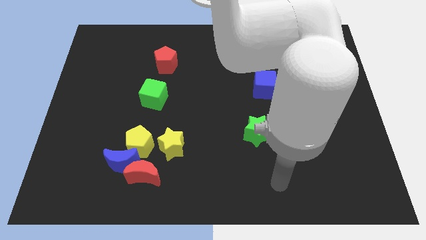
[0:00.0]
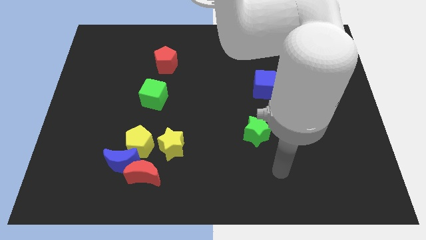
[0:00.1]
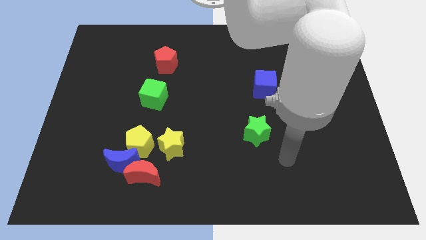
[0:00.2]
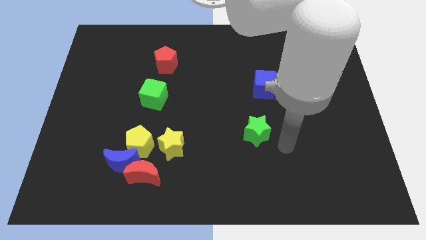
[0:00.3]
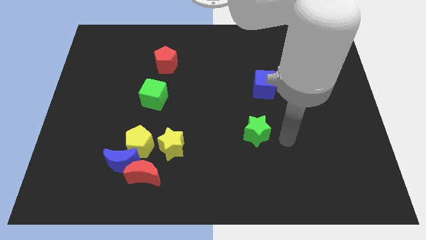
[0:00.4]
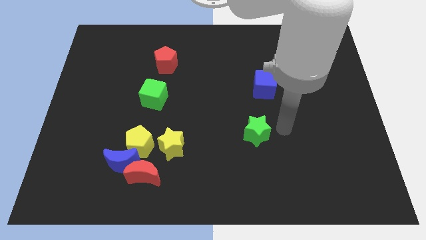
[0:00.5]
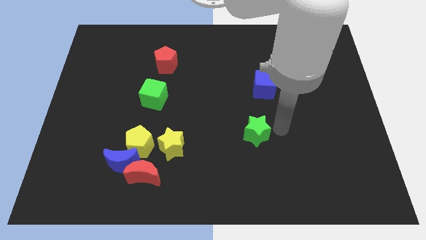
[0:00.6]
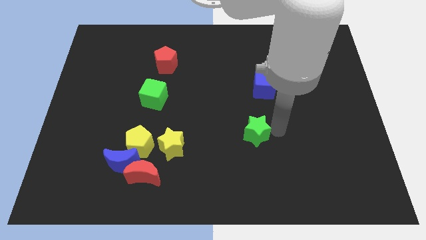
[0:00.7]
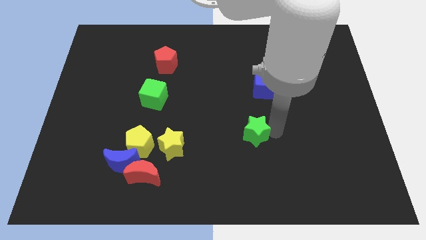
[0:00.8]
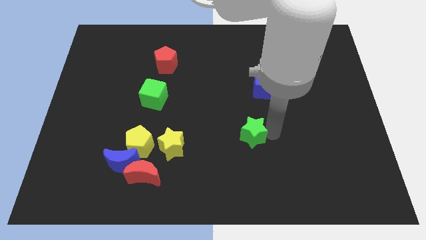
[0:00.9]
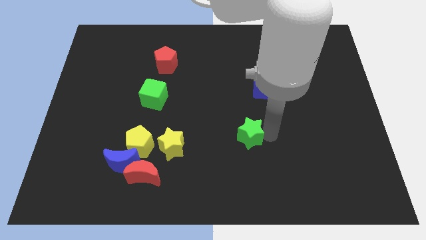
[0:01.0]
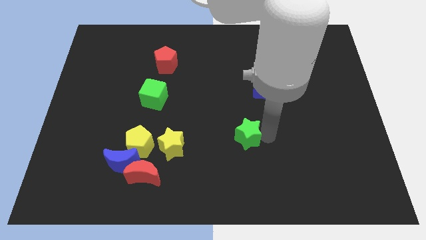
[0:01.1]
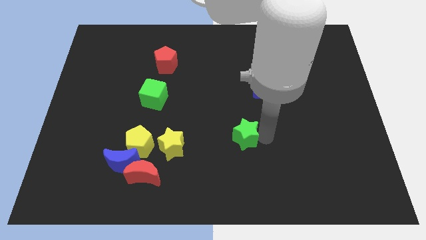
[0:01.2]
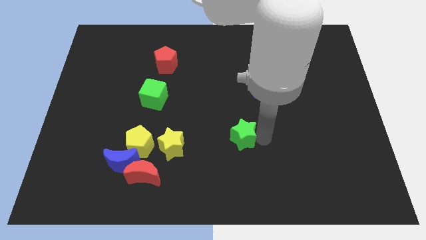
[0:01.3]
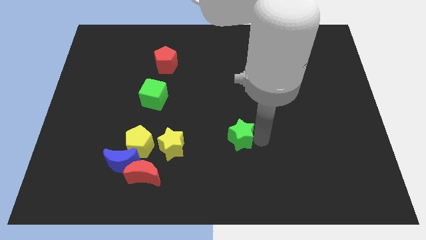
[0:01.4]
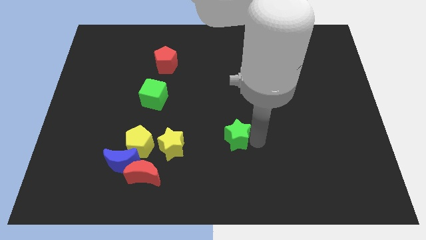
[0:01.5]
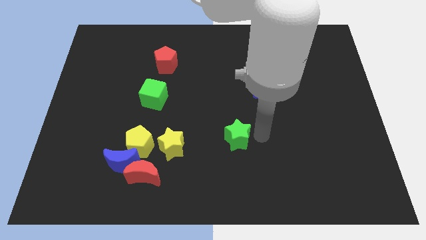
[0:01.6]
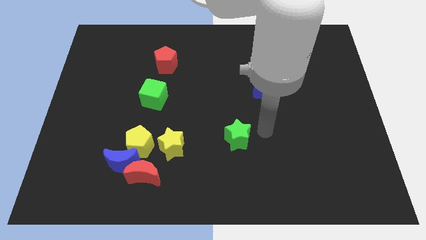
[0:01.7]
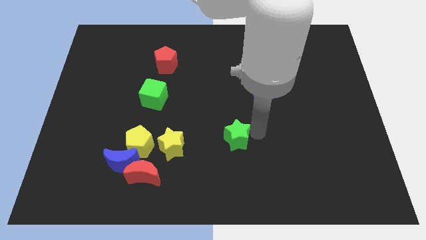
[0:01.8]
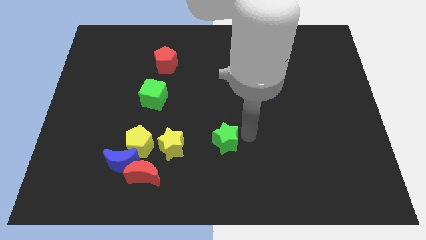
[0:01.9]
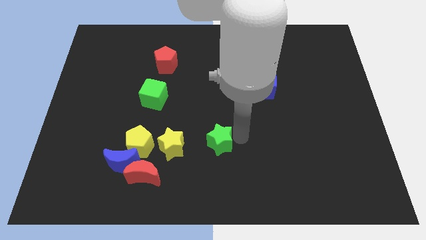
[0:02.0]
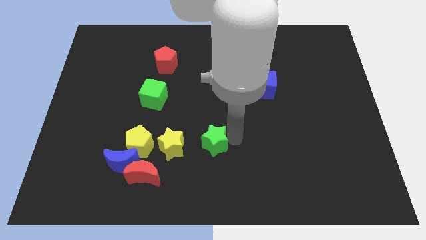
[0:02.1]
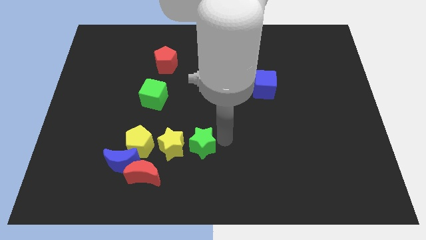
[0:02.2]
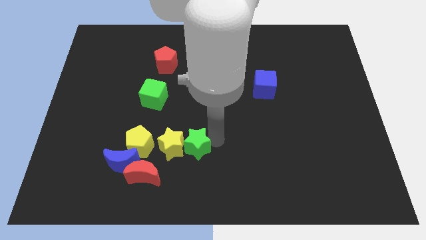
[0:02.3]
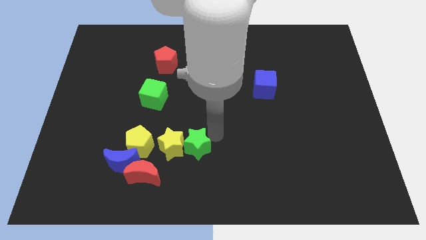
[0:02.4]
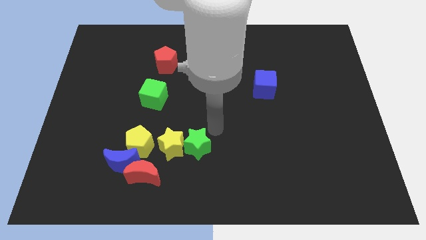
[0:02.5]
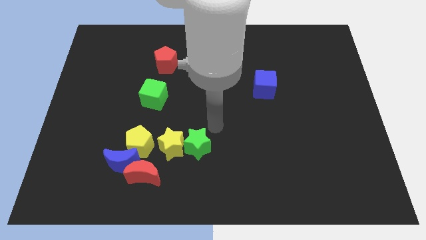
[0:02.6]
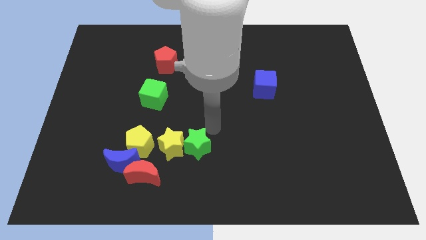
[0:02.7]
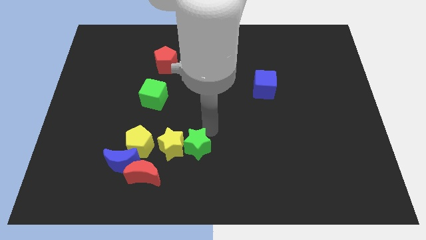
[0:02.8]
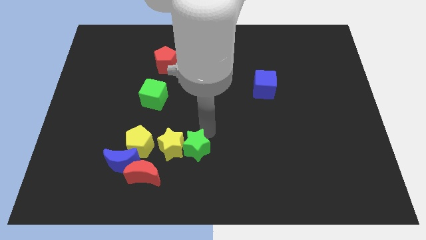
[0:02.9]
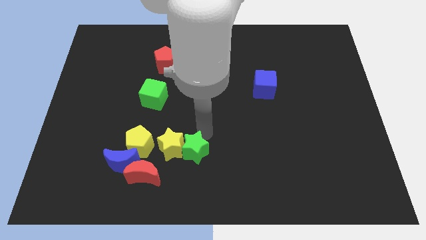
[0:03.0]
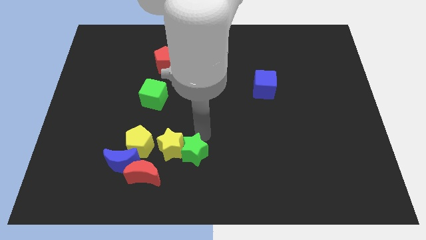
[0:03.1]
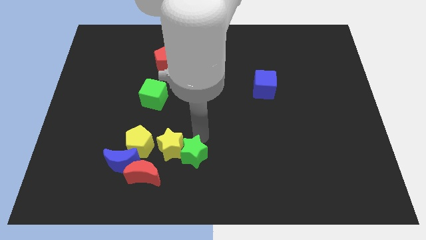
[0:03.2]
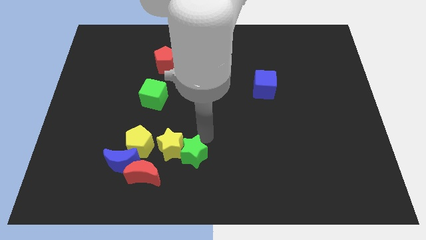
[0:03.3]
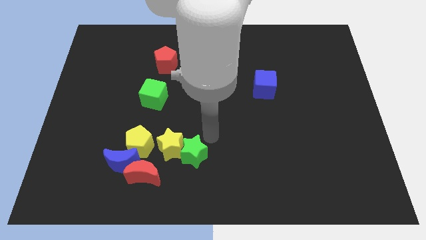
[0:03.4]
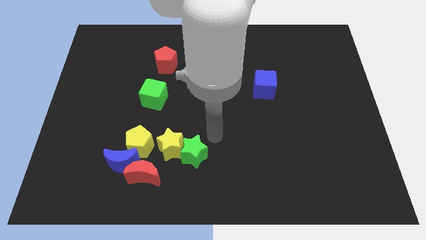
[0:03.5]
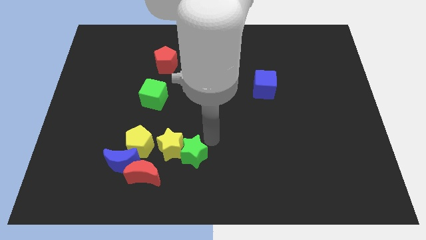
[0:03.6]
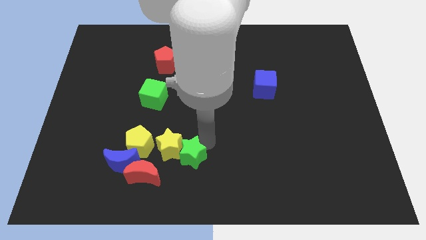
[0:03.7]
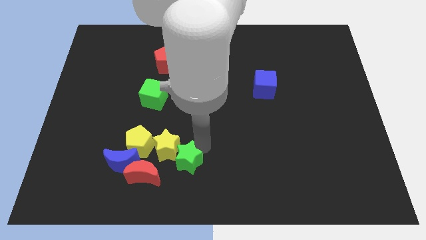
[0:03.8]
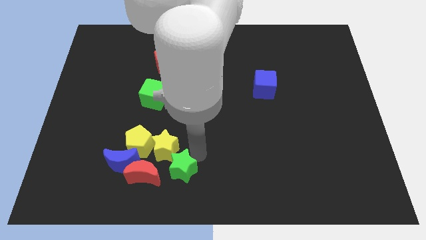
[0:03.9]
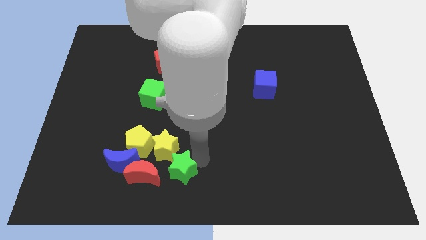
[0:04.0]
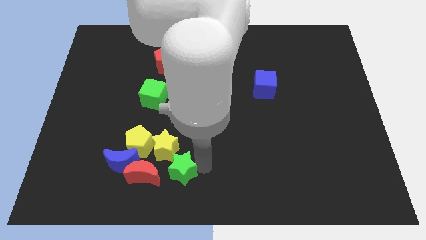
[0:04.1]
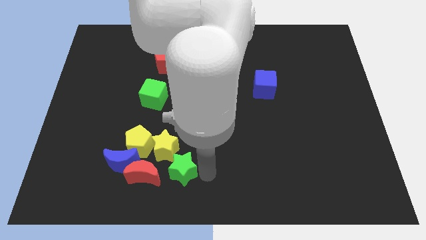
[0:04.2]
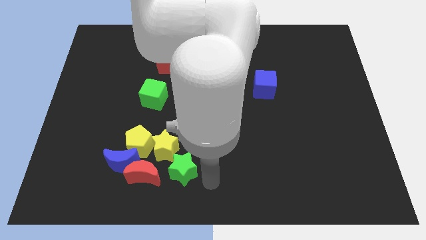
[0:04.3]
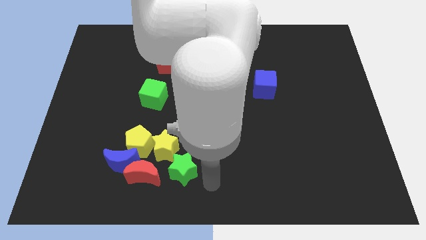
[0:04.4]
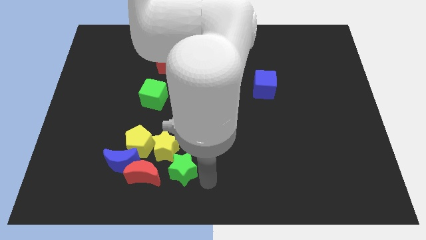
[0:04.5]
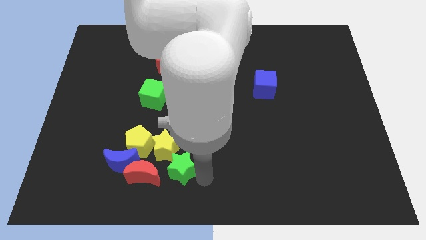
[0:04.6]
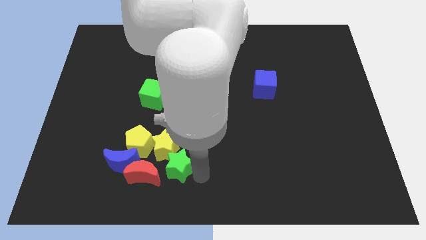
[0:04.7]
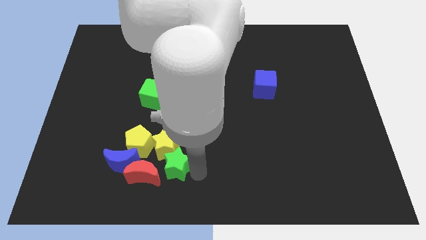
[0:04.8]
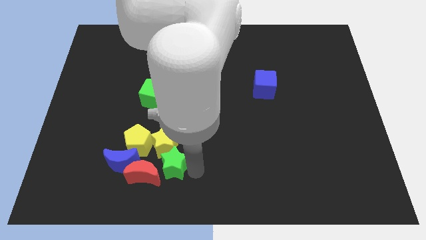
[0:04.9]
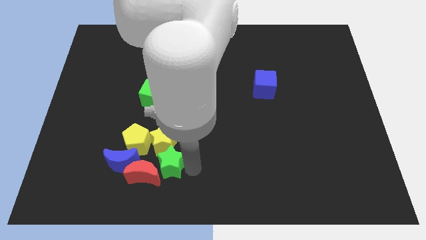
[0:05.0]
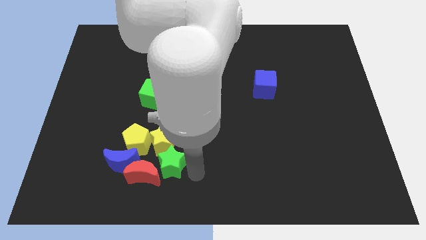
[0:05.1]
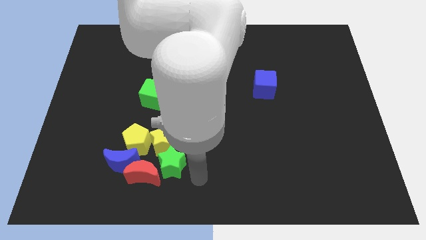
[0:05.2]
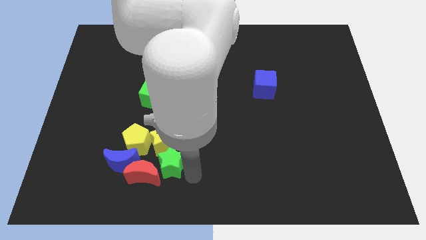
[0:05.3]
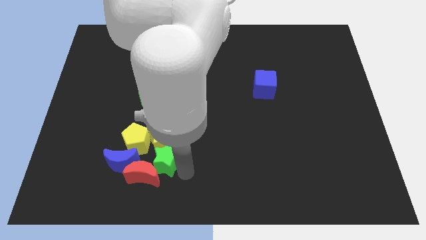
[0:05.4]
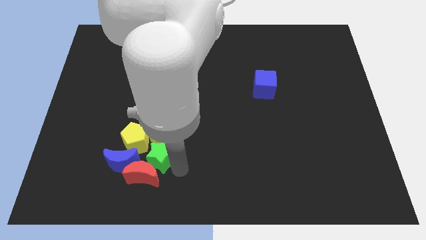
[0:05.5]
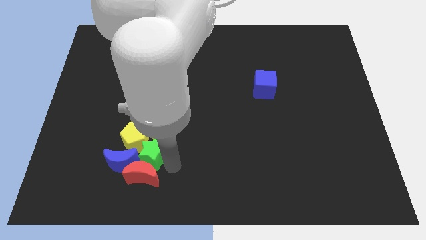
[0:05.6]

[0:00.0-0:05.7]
put the green star next to the yellow pentagon

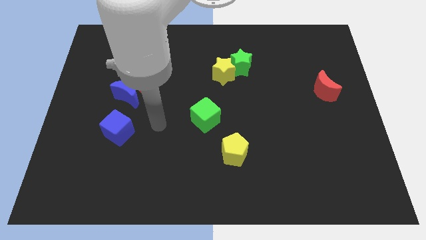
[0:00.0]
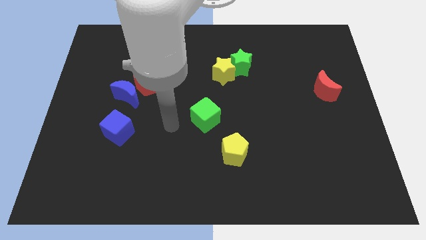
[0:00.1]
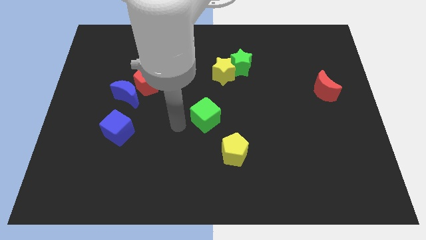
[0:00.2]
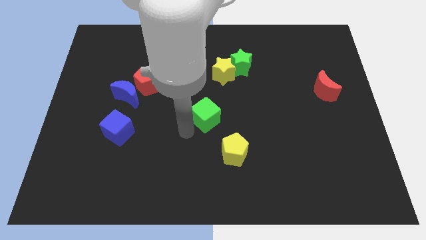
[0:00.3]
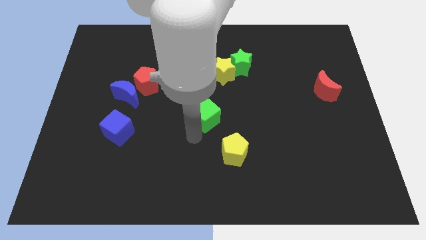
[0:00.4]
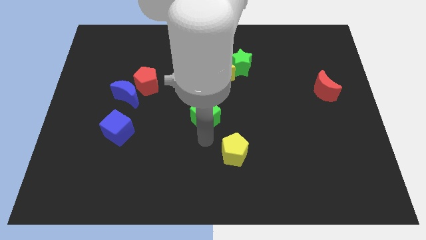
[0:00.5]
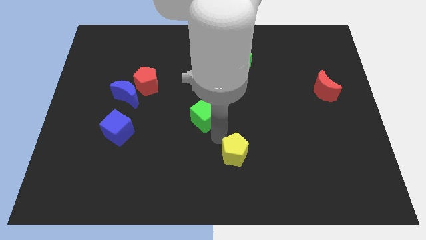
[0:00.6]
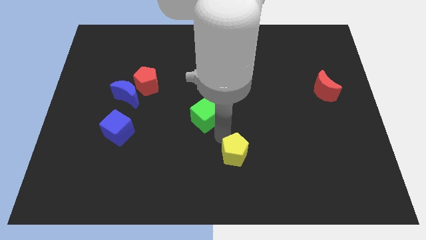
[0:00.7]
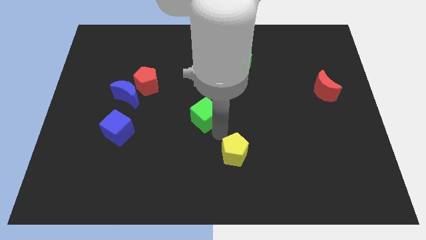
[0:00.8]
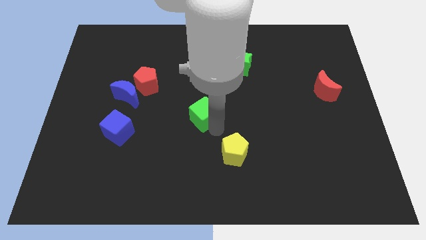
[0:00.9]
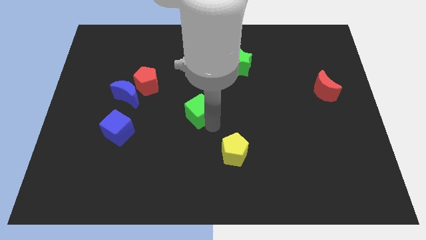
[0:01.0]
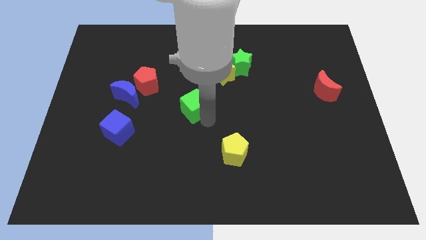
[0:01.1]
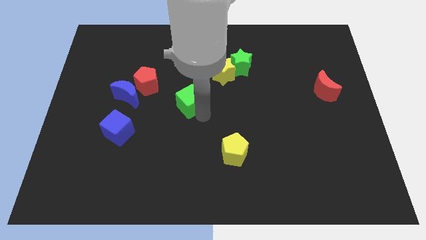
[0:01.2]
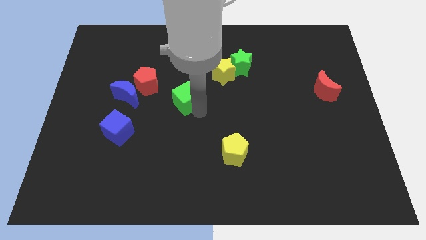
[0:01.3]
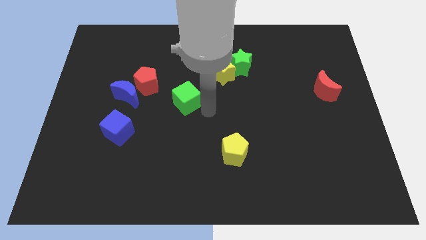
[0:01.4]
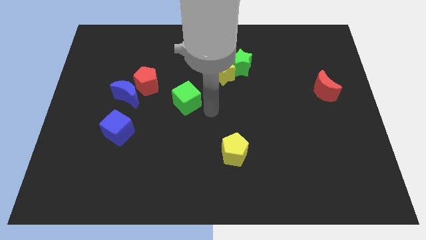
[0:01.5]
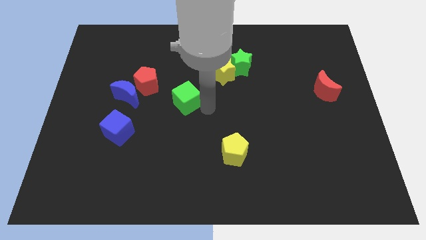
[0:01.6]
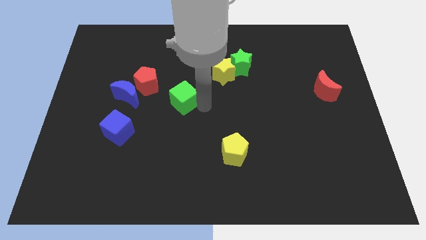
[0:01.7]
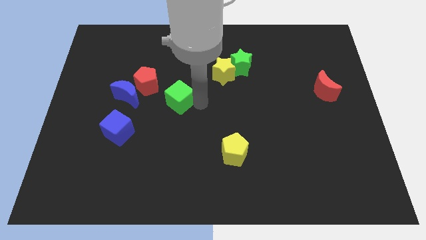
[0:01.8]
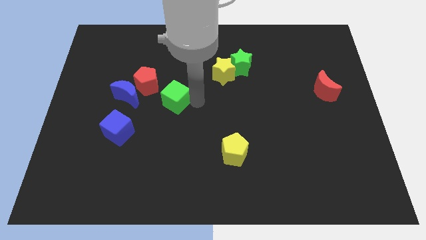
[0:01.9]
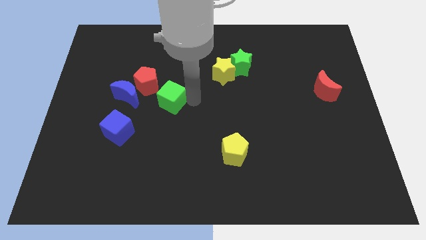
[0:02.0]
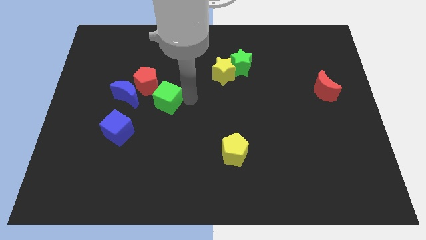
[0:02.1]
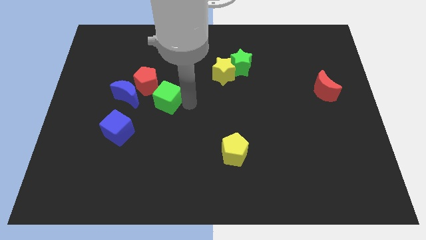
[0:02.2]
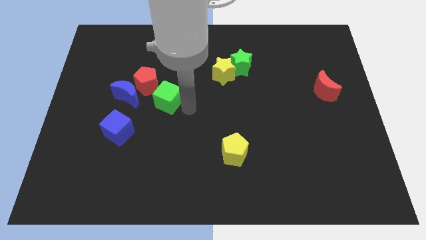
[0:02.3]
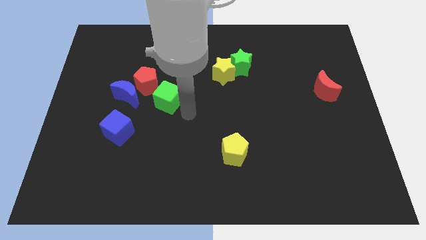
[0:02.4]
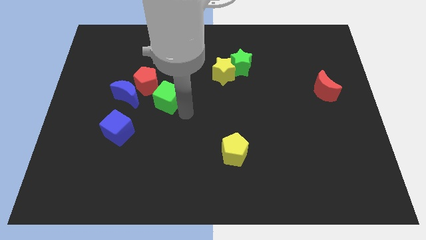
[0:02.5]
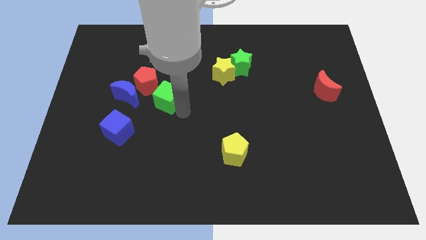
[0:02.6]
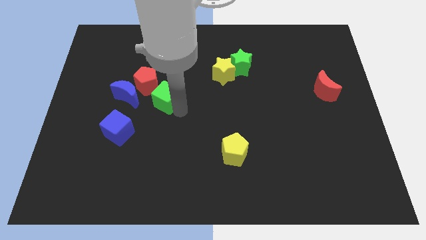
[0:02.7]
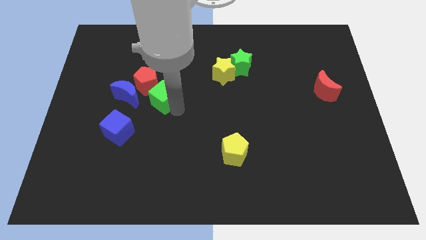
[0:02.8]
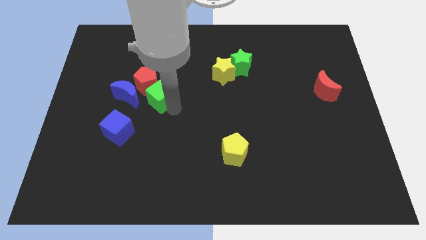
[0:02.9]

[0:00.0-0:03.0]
move the green cube close to the red pentagon
